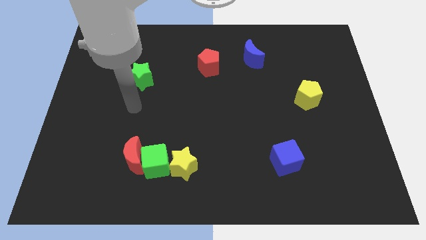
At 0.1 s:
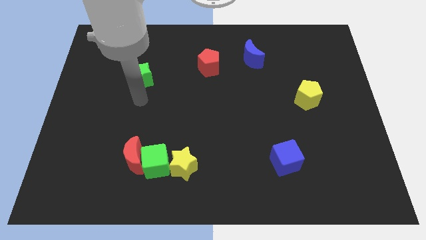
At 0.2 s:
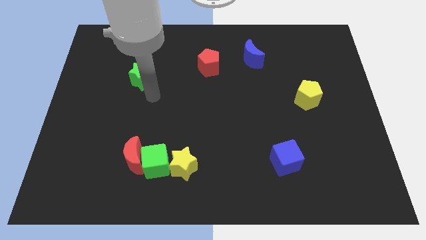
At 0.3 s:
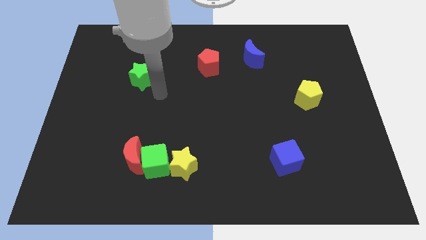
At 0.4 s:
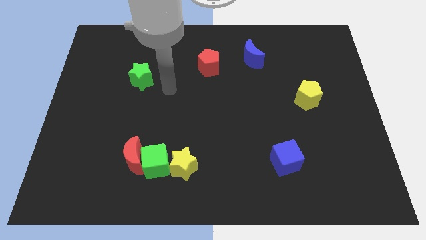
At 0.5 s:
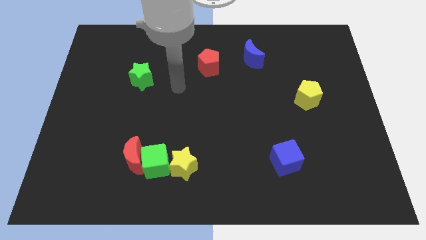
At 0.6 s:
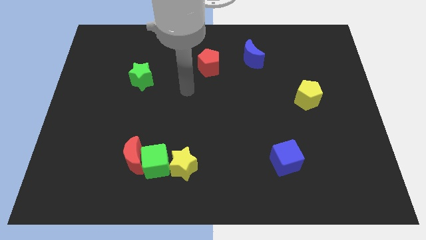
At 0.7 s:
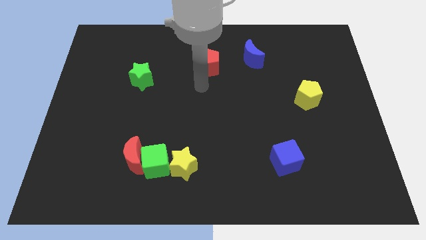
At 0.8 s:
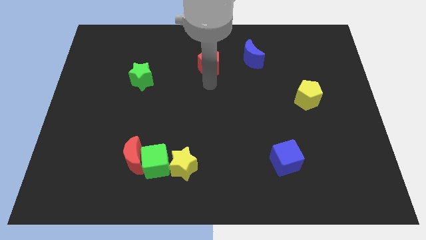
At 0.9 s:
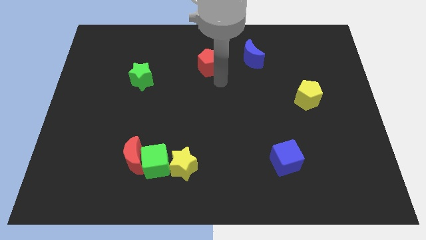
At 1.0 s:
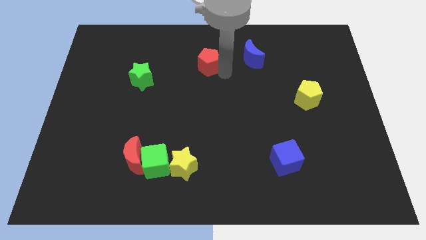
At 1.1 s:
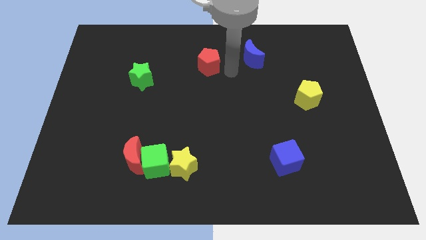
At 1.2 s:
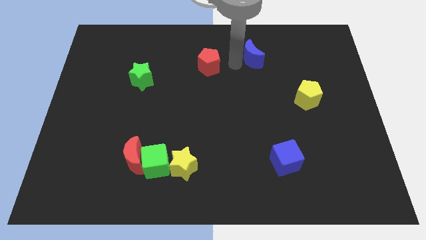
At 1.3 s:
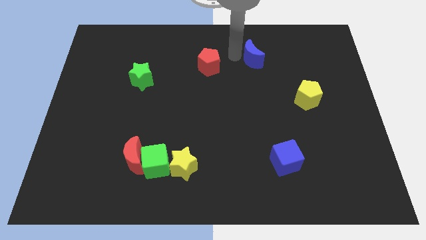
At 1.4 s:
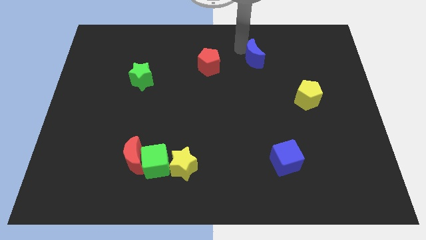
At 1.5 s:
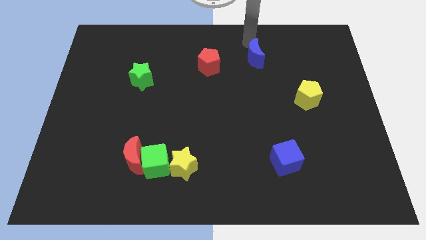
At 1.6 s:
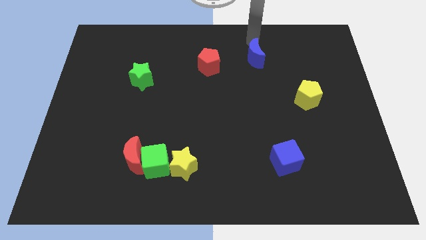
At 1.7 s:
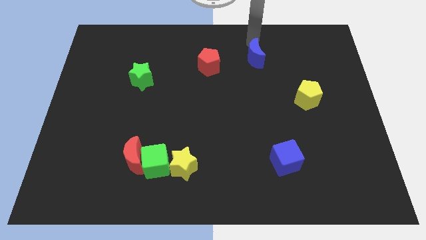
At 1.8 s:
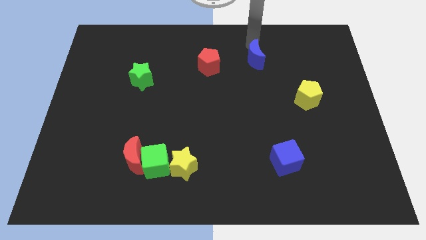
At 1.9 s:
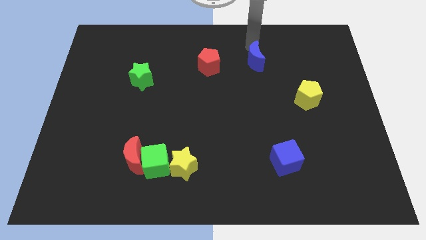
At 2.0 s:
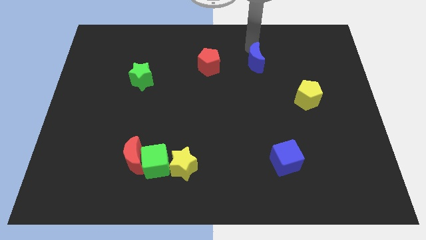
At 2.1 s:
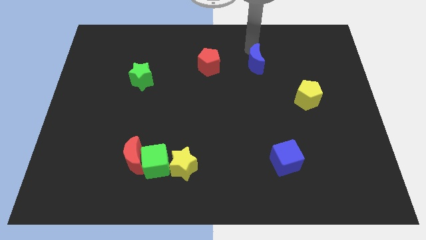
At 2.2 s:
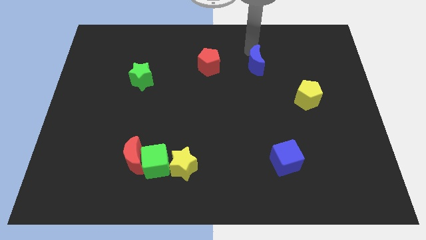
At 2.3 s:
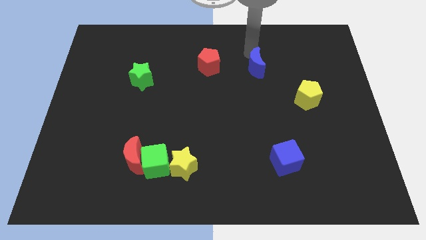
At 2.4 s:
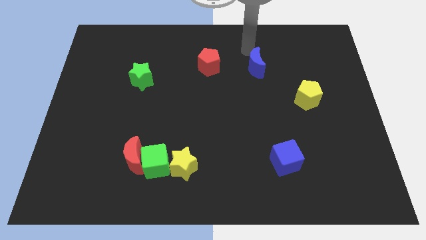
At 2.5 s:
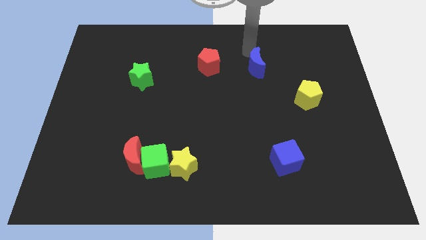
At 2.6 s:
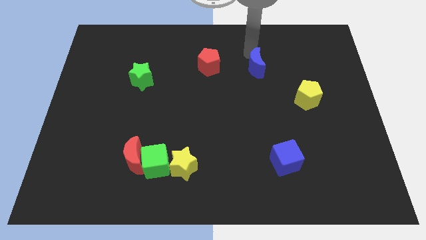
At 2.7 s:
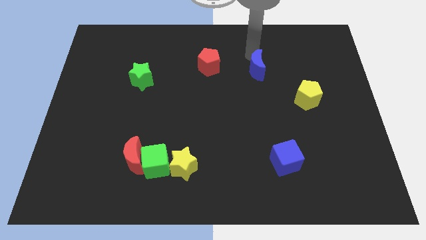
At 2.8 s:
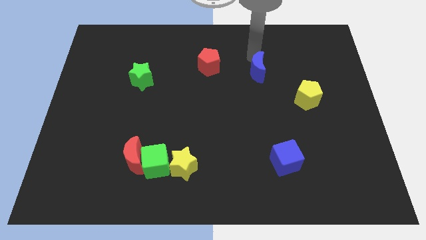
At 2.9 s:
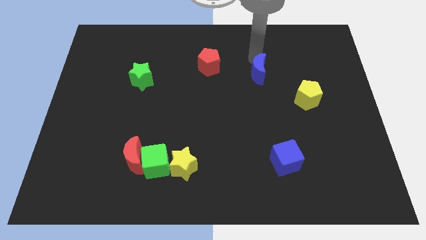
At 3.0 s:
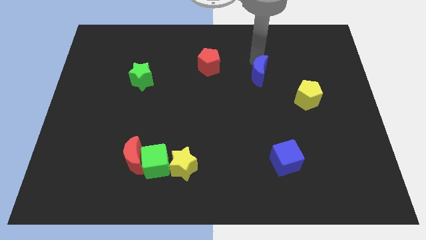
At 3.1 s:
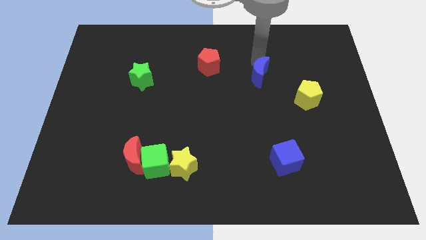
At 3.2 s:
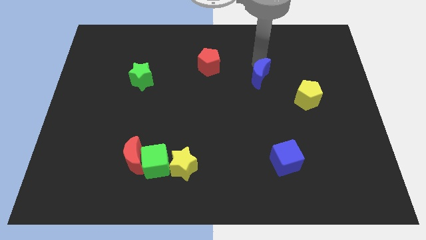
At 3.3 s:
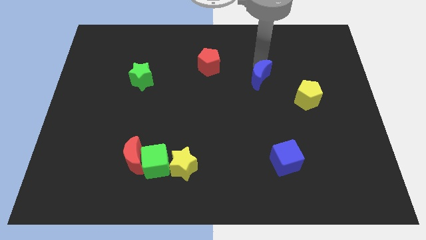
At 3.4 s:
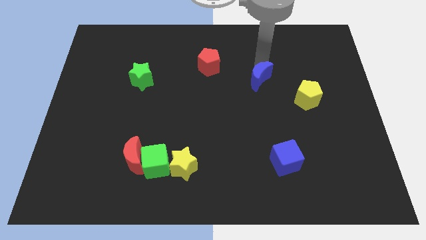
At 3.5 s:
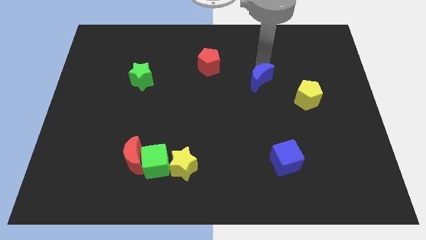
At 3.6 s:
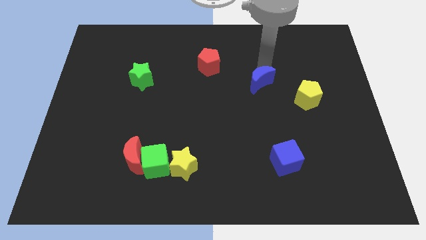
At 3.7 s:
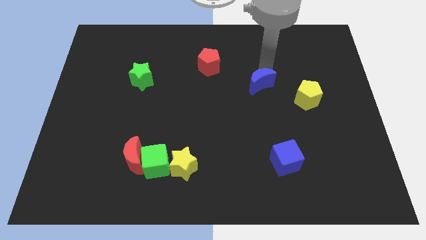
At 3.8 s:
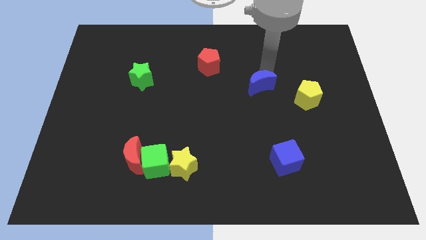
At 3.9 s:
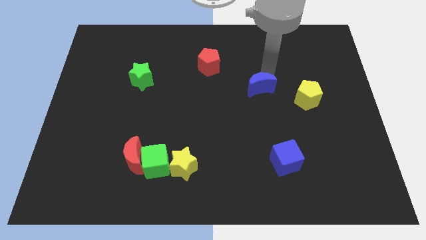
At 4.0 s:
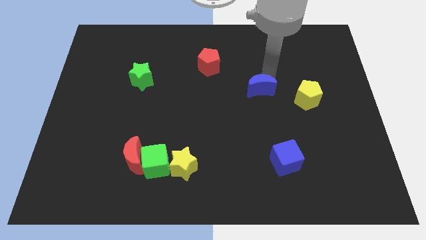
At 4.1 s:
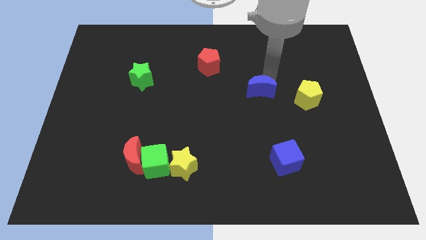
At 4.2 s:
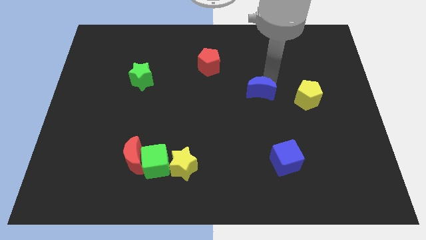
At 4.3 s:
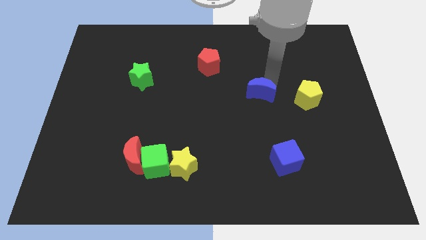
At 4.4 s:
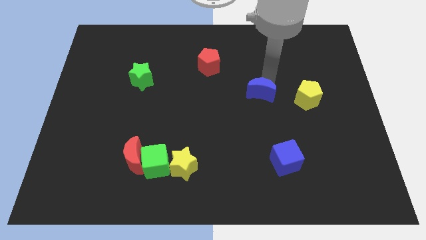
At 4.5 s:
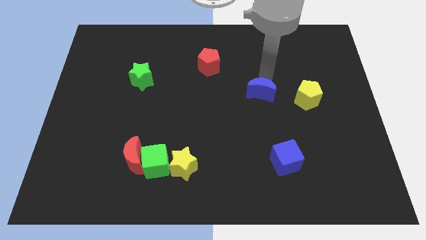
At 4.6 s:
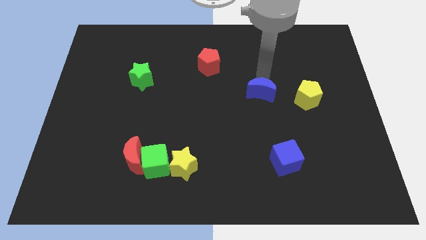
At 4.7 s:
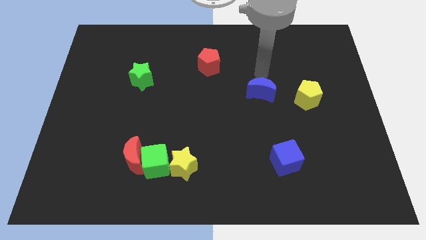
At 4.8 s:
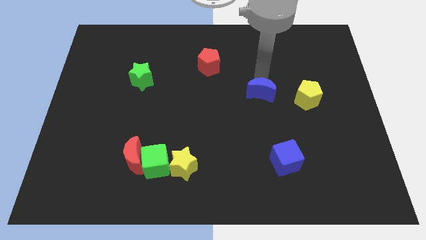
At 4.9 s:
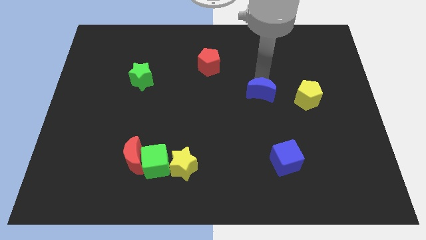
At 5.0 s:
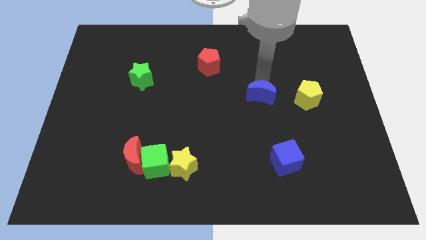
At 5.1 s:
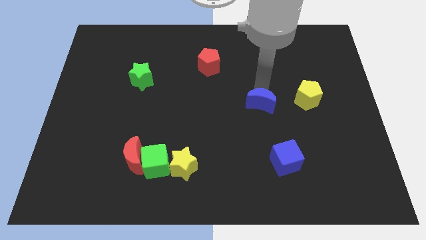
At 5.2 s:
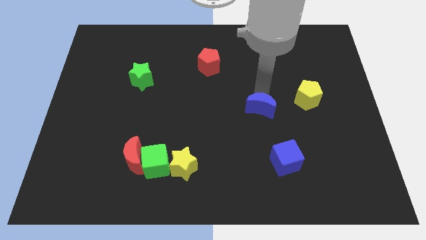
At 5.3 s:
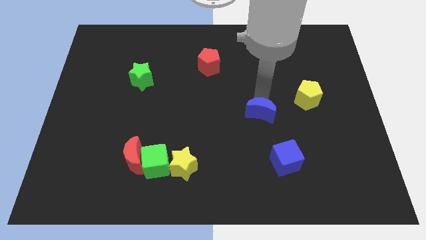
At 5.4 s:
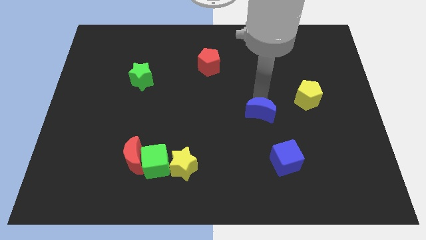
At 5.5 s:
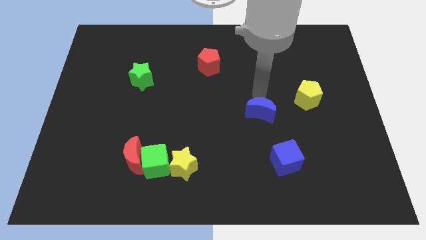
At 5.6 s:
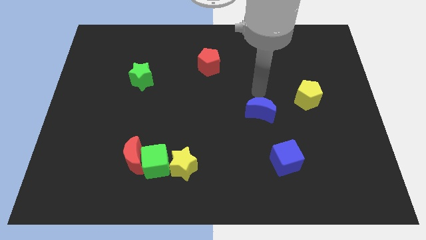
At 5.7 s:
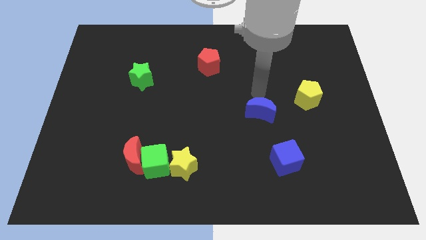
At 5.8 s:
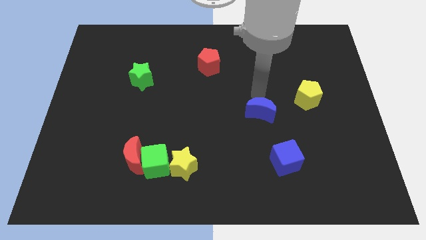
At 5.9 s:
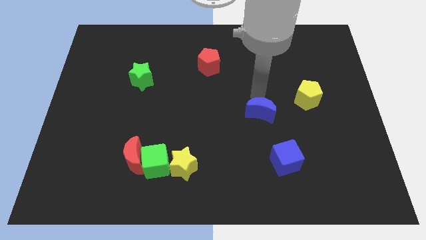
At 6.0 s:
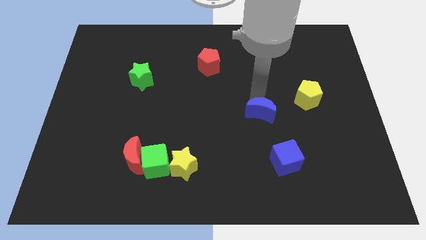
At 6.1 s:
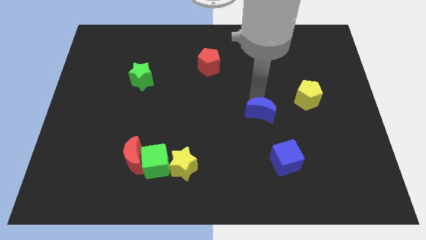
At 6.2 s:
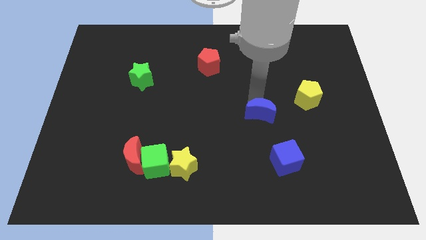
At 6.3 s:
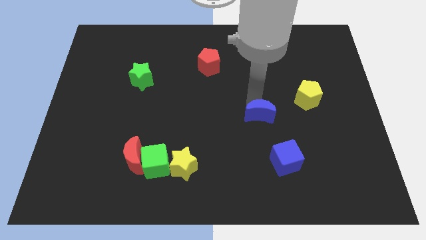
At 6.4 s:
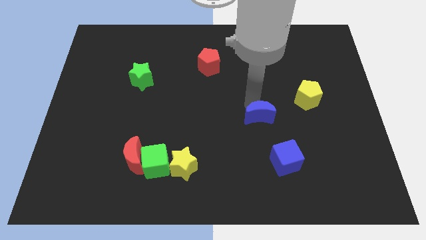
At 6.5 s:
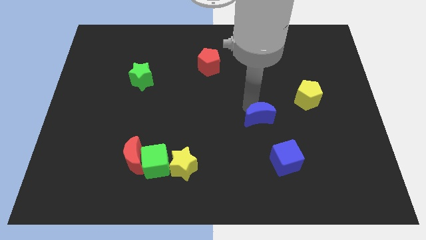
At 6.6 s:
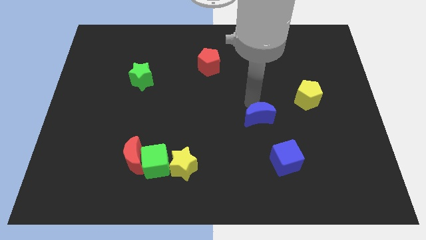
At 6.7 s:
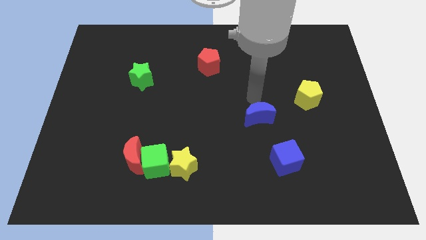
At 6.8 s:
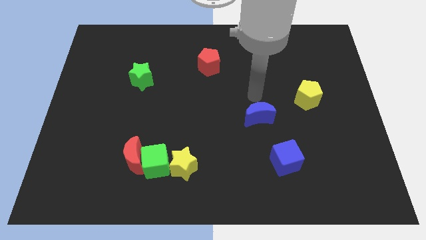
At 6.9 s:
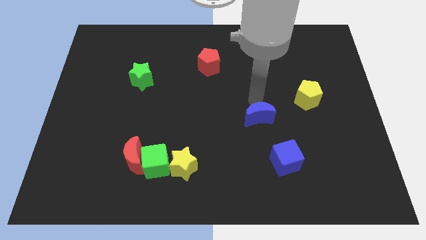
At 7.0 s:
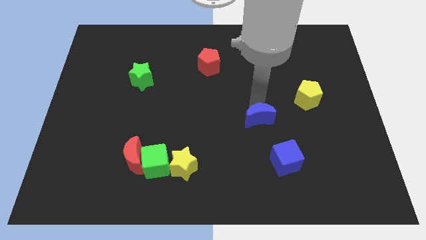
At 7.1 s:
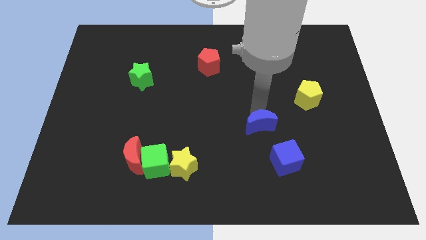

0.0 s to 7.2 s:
slide the blue moon down

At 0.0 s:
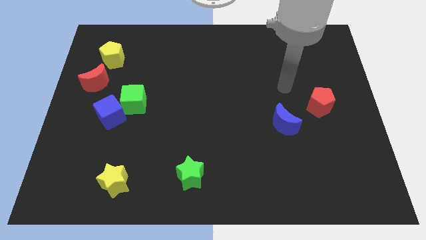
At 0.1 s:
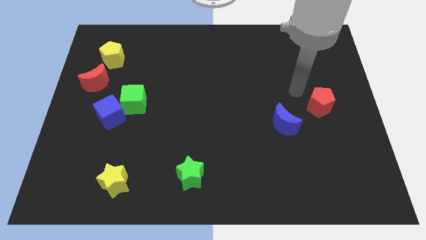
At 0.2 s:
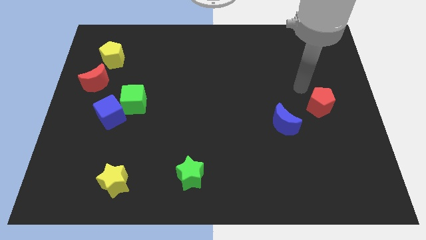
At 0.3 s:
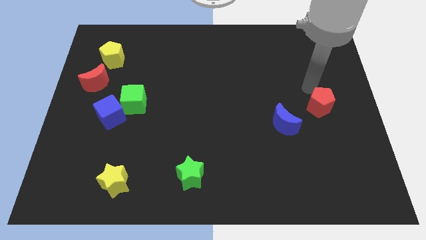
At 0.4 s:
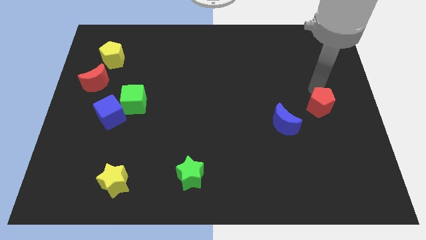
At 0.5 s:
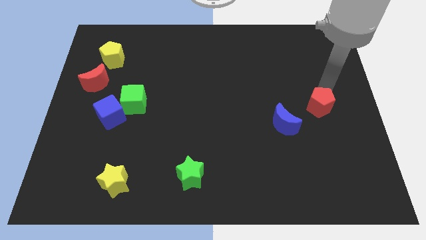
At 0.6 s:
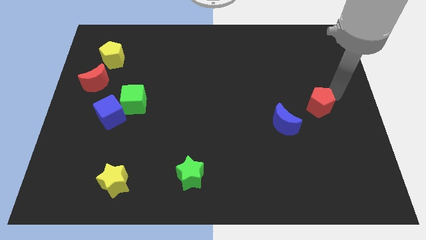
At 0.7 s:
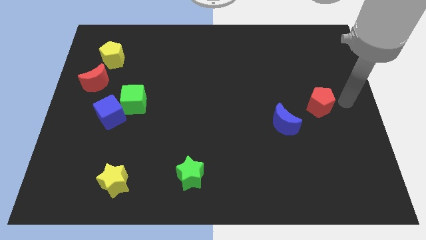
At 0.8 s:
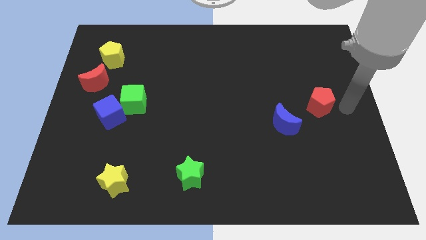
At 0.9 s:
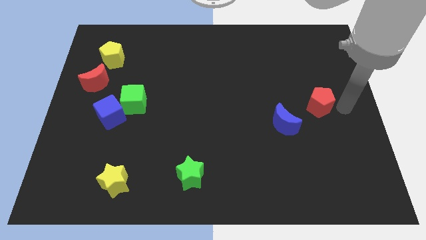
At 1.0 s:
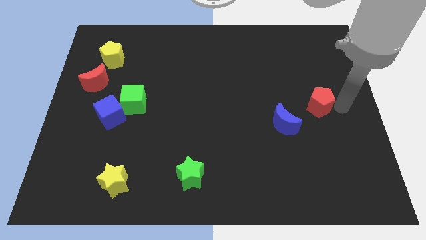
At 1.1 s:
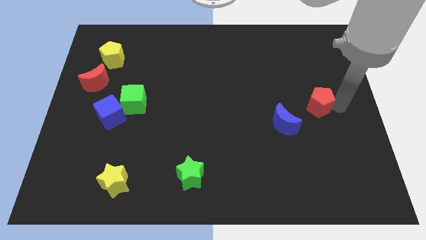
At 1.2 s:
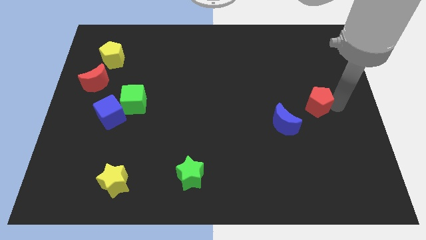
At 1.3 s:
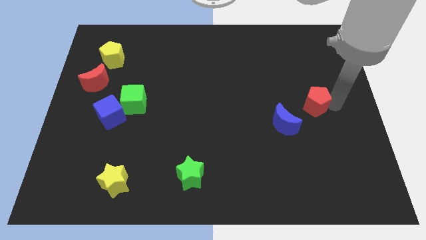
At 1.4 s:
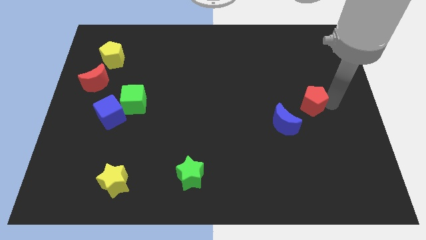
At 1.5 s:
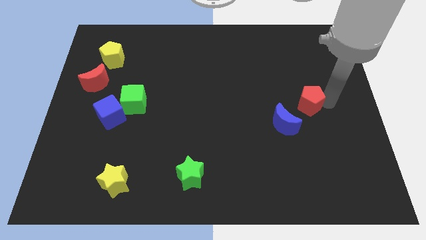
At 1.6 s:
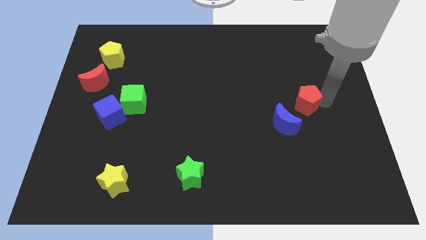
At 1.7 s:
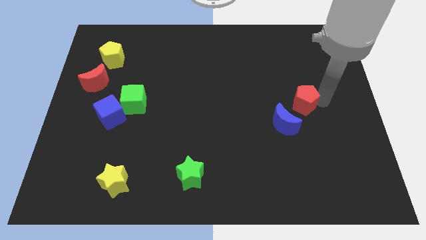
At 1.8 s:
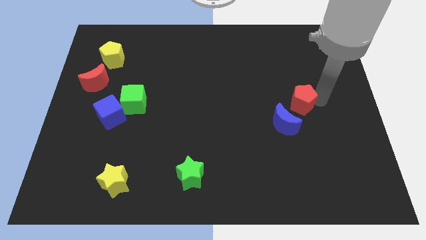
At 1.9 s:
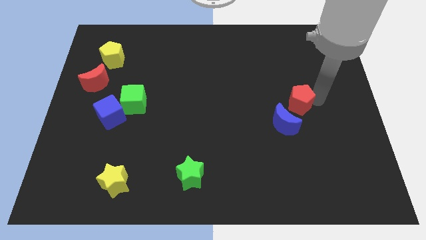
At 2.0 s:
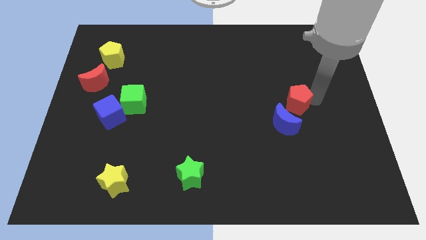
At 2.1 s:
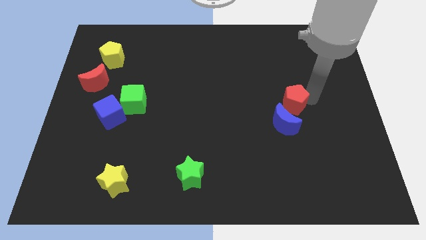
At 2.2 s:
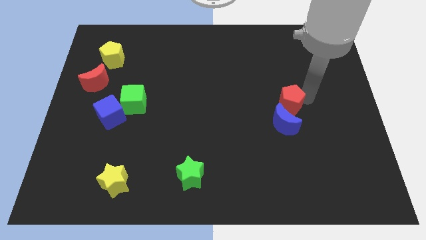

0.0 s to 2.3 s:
push the red pentagon left a little bit
